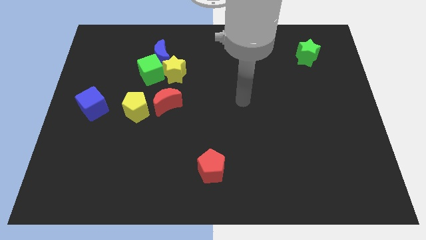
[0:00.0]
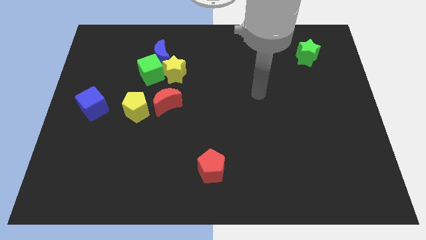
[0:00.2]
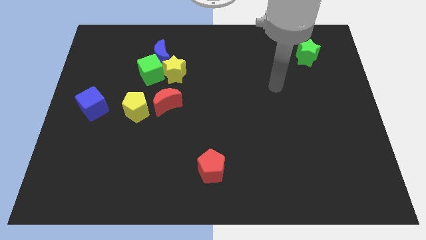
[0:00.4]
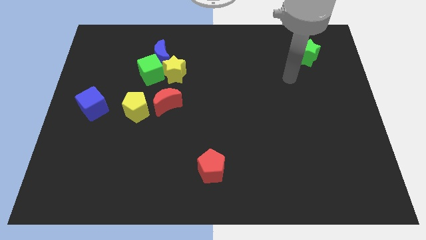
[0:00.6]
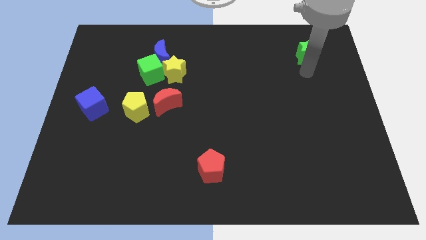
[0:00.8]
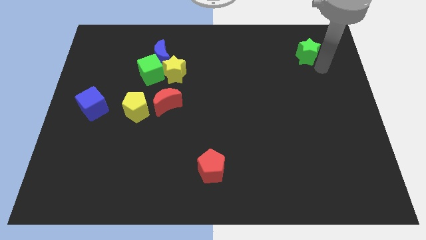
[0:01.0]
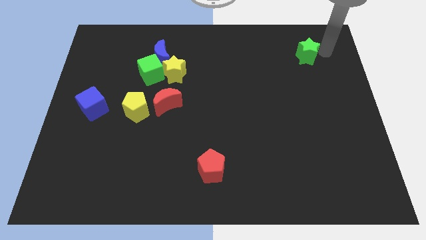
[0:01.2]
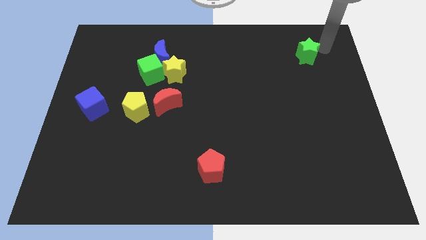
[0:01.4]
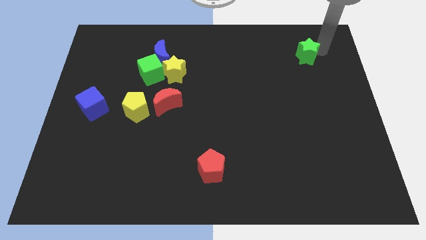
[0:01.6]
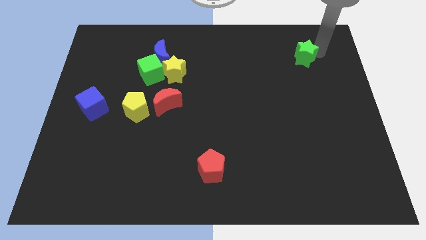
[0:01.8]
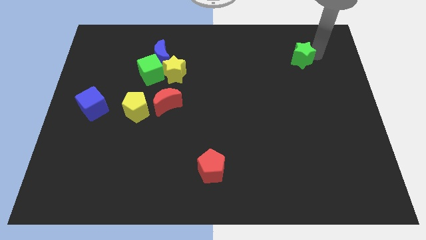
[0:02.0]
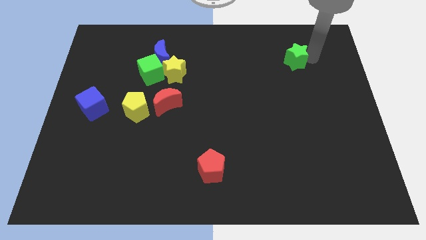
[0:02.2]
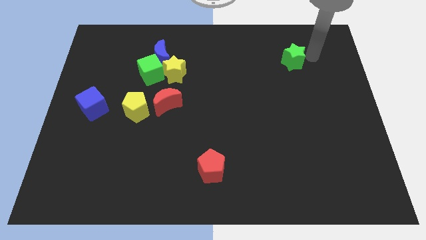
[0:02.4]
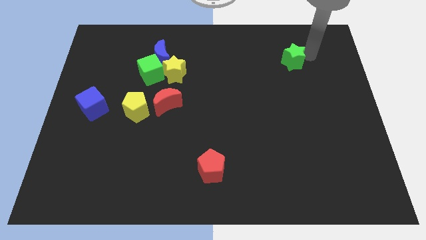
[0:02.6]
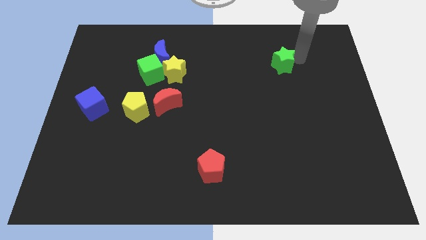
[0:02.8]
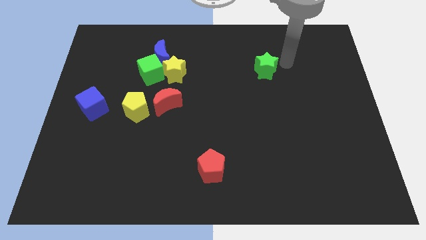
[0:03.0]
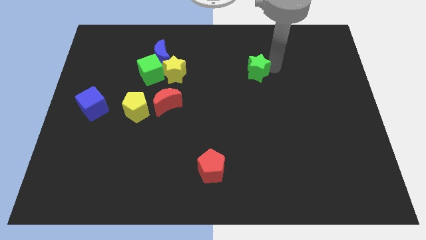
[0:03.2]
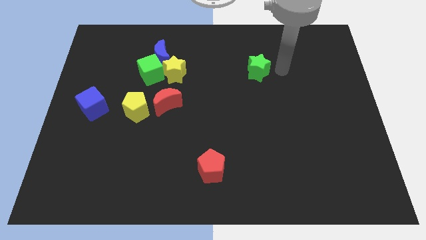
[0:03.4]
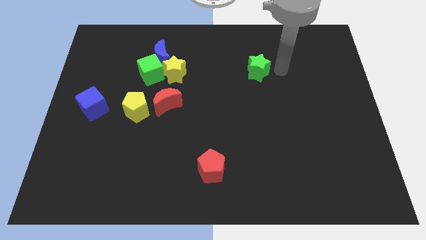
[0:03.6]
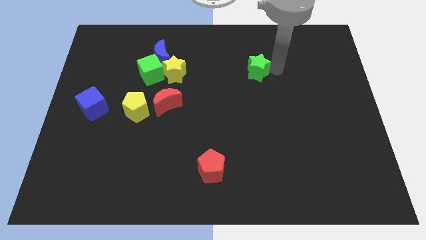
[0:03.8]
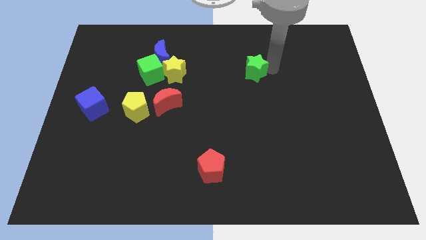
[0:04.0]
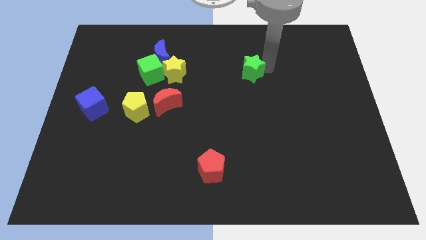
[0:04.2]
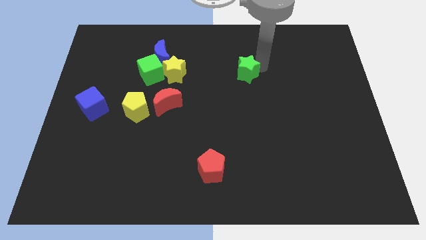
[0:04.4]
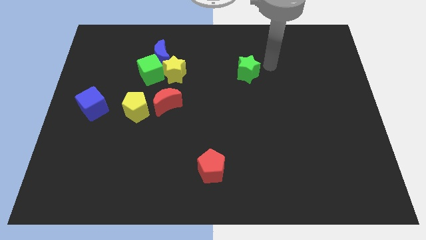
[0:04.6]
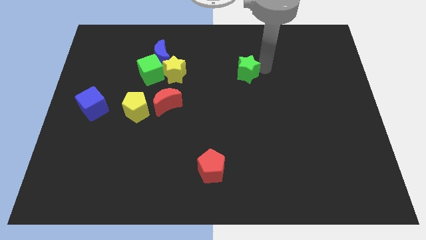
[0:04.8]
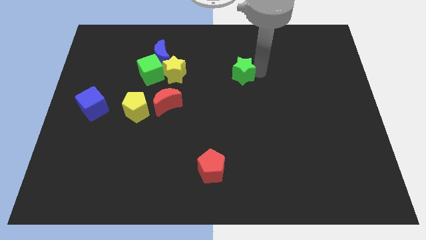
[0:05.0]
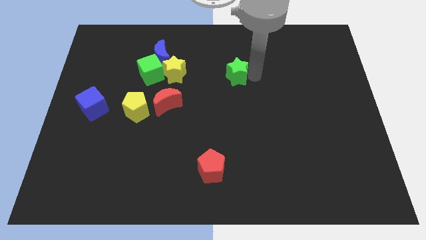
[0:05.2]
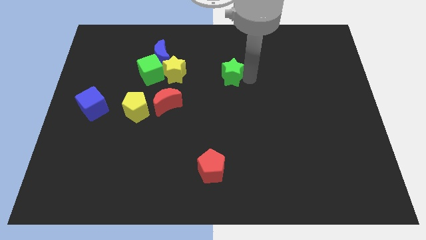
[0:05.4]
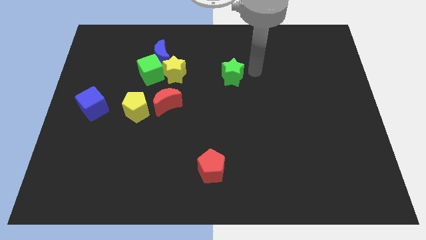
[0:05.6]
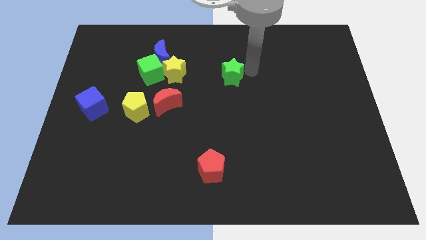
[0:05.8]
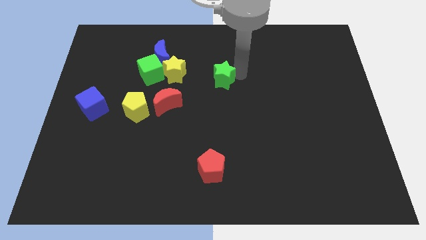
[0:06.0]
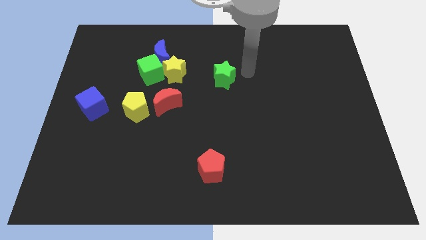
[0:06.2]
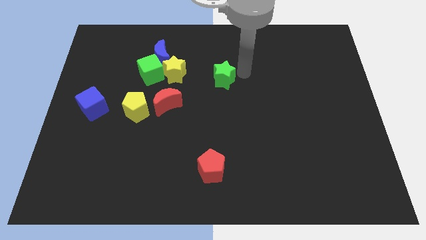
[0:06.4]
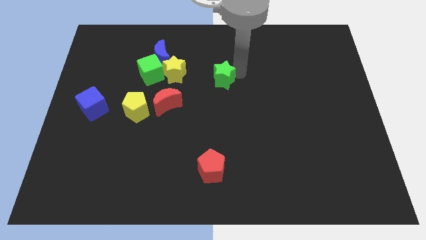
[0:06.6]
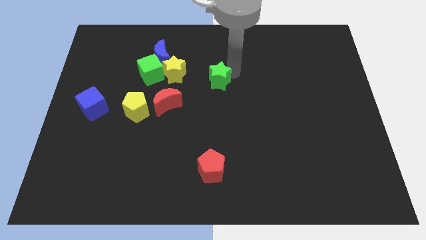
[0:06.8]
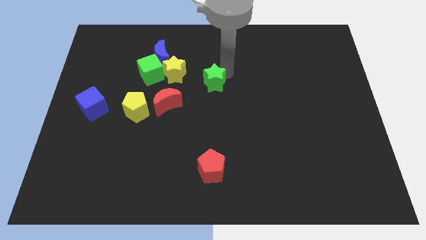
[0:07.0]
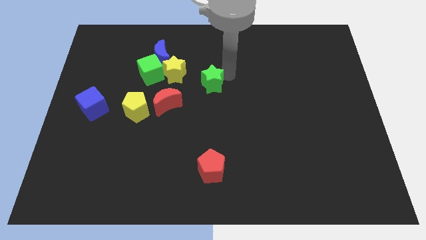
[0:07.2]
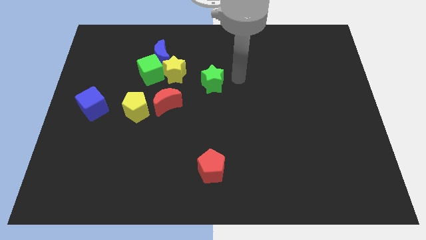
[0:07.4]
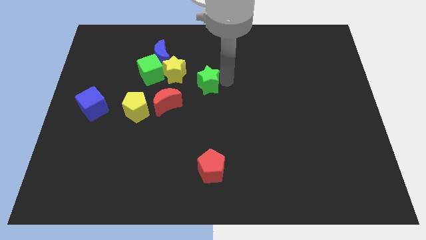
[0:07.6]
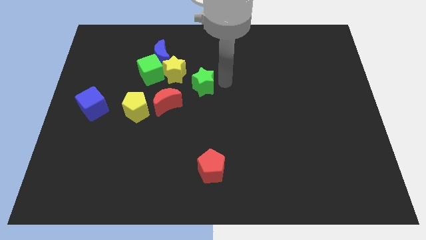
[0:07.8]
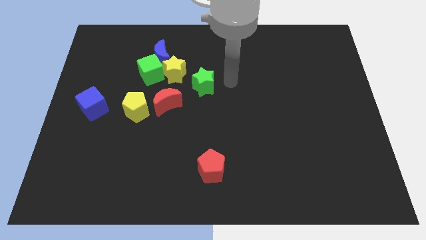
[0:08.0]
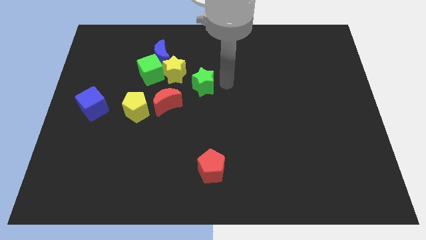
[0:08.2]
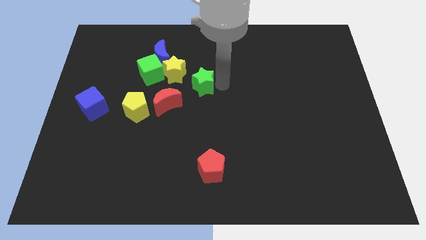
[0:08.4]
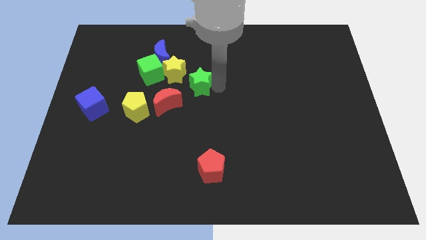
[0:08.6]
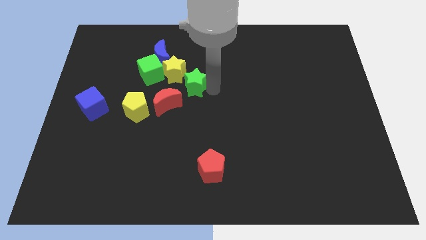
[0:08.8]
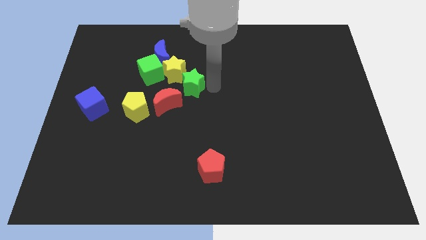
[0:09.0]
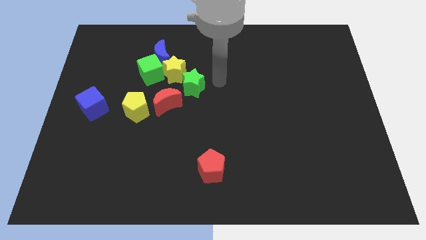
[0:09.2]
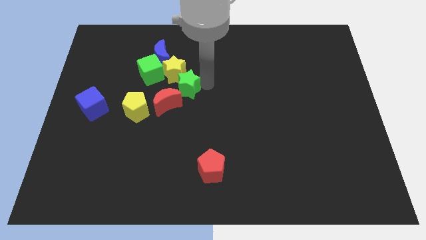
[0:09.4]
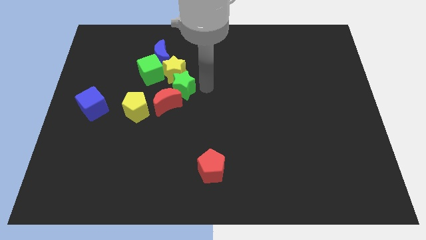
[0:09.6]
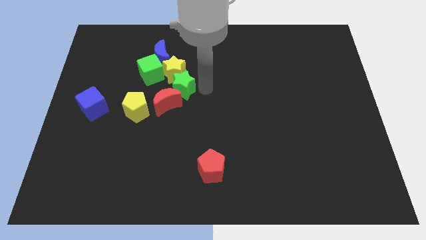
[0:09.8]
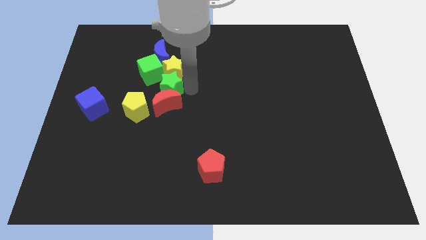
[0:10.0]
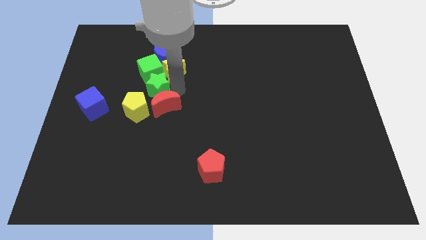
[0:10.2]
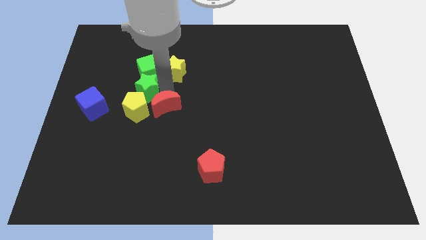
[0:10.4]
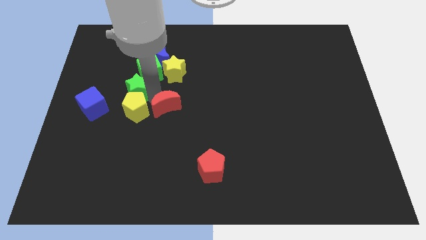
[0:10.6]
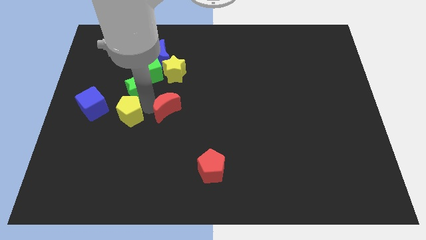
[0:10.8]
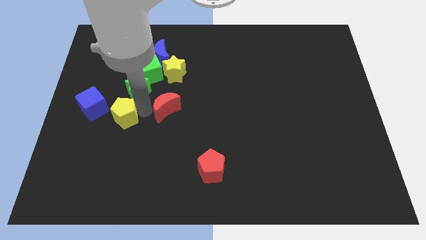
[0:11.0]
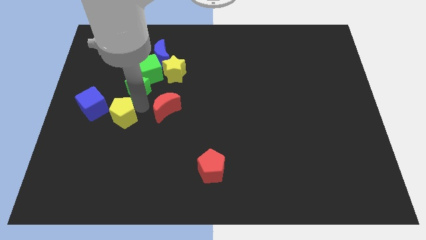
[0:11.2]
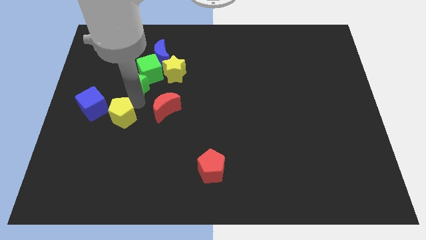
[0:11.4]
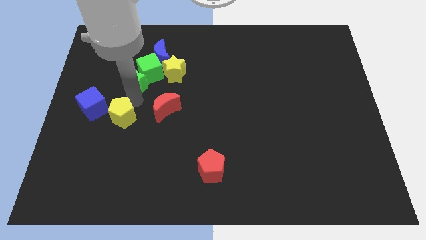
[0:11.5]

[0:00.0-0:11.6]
move the green star just left of the yellow star

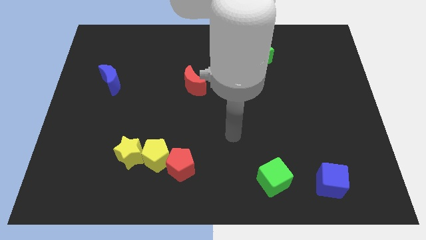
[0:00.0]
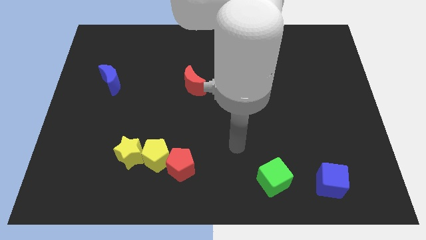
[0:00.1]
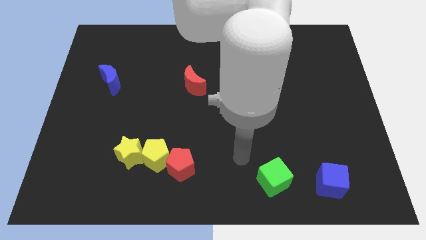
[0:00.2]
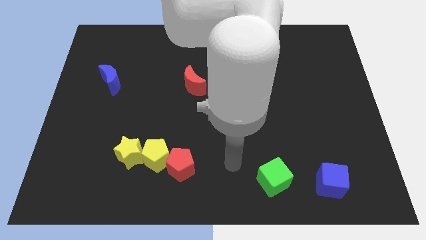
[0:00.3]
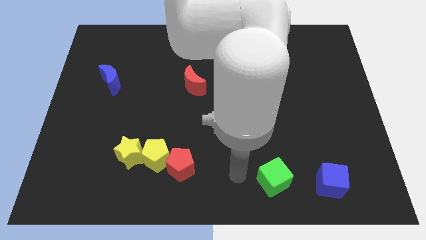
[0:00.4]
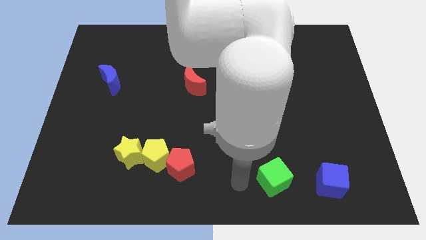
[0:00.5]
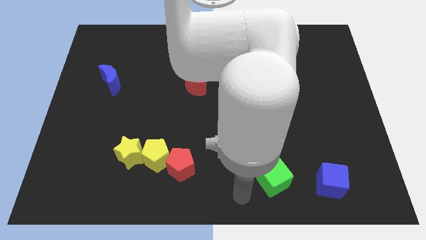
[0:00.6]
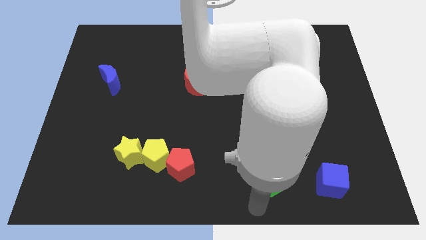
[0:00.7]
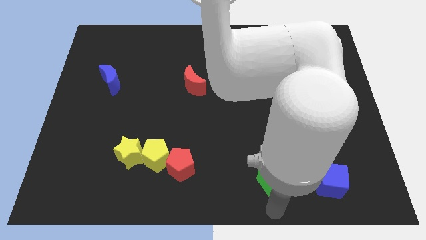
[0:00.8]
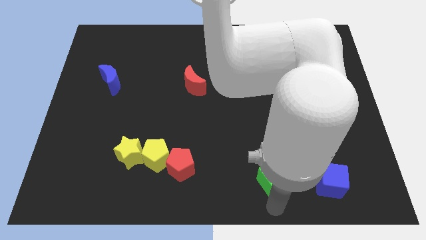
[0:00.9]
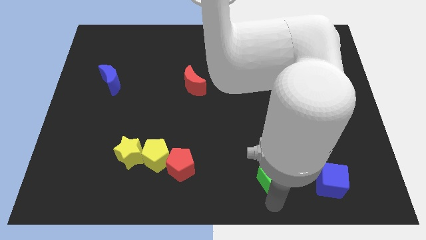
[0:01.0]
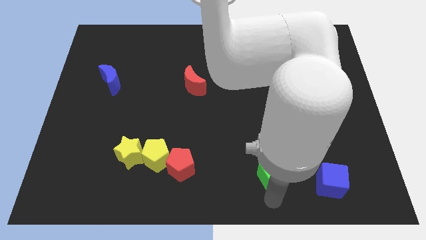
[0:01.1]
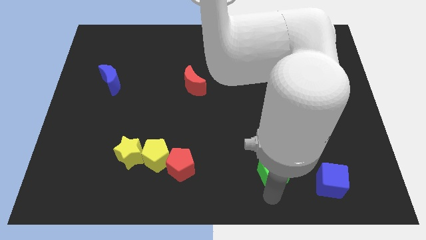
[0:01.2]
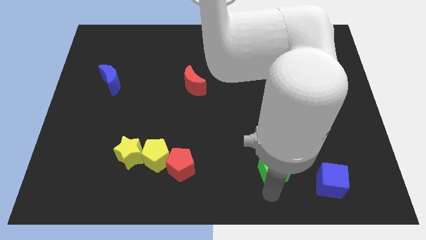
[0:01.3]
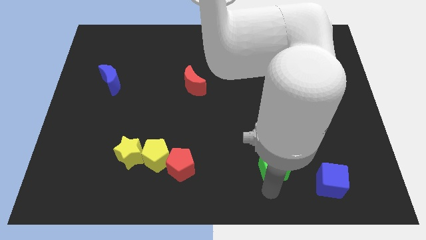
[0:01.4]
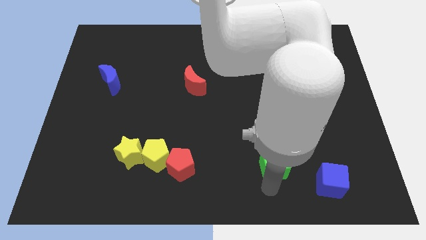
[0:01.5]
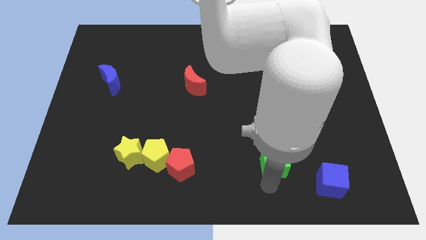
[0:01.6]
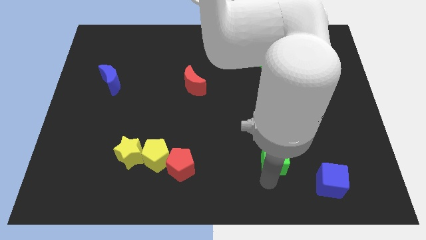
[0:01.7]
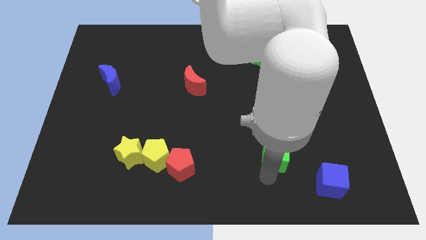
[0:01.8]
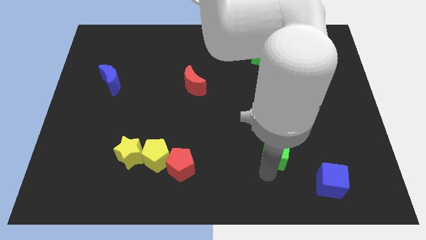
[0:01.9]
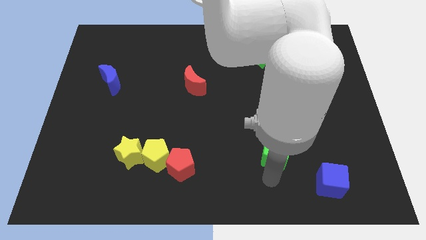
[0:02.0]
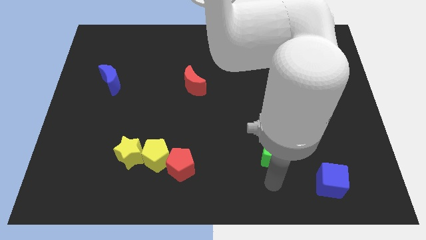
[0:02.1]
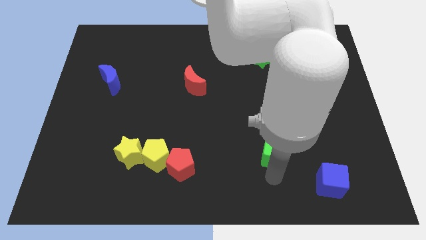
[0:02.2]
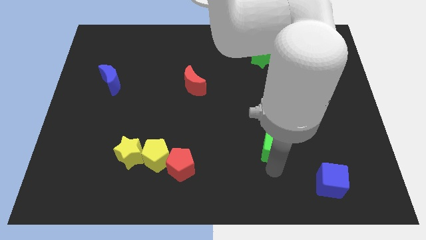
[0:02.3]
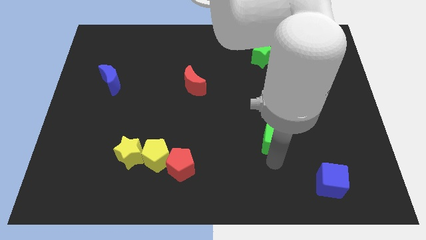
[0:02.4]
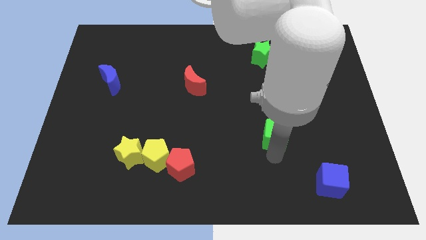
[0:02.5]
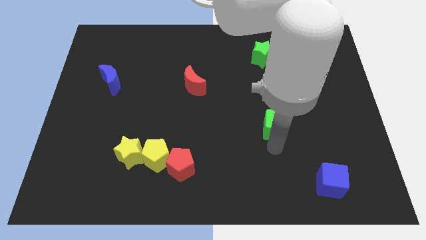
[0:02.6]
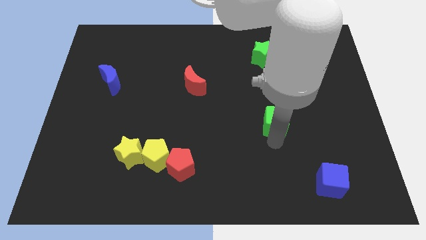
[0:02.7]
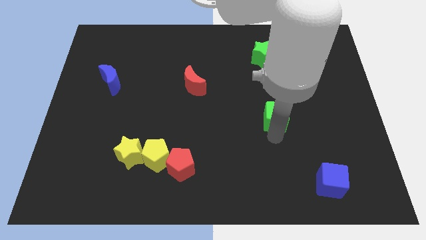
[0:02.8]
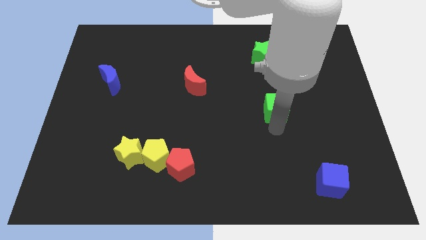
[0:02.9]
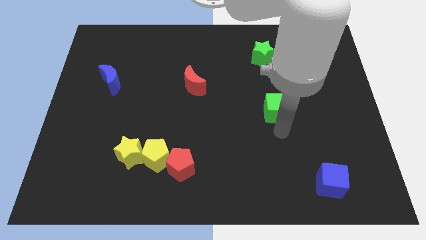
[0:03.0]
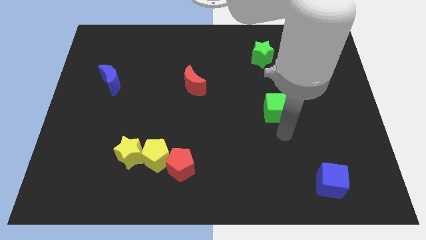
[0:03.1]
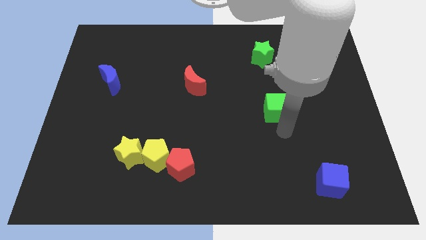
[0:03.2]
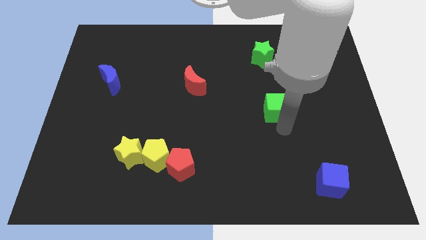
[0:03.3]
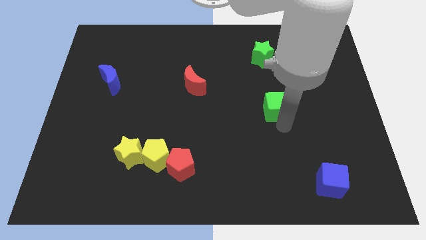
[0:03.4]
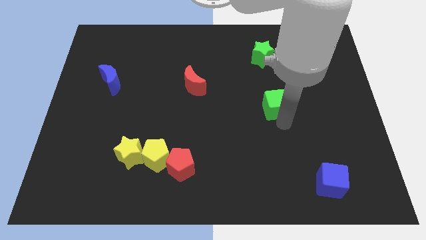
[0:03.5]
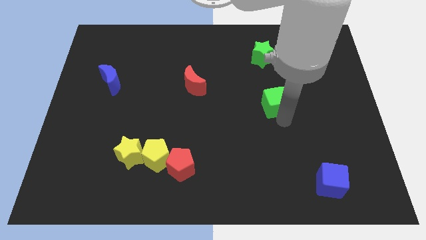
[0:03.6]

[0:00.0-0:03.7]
push the green cube below the green star
